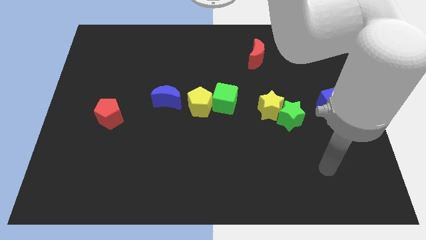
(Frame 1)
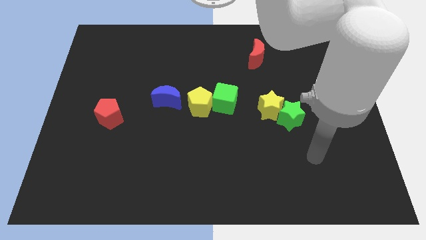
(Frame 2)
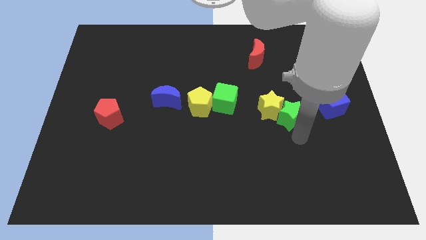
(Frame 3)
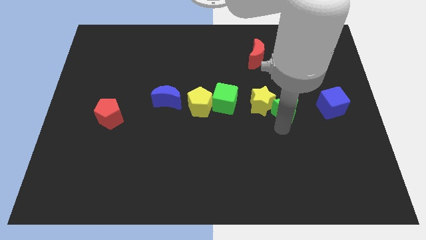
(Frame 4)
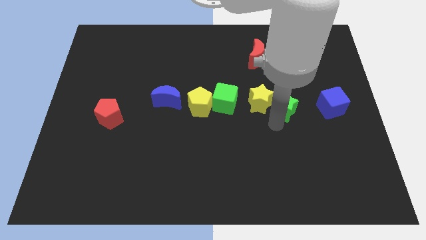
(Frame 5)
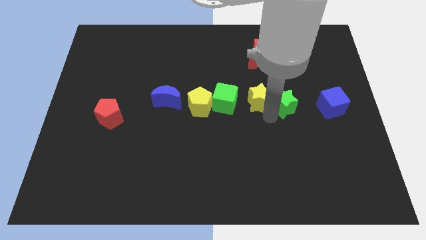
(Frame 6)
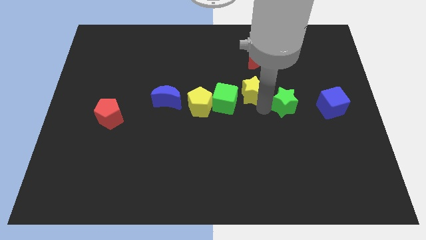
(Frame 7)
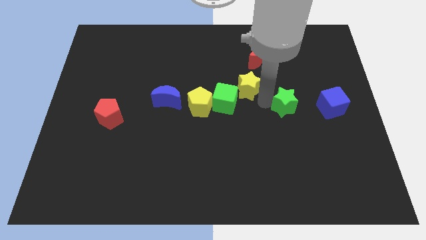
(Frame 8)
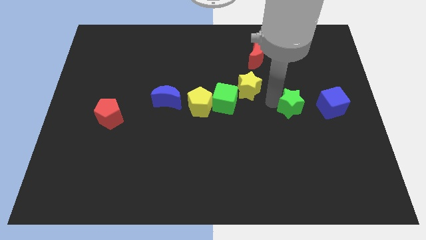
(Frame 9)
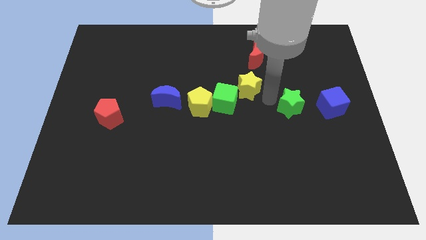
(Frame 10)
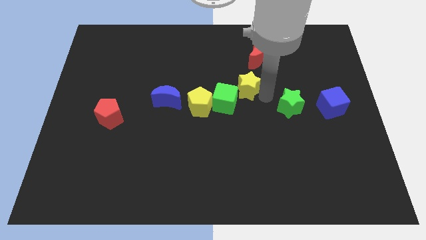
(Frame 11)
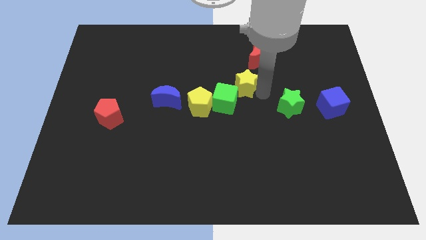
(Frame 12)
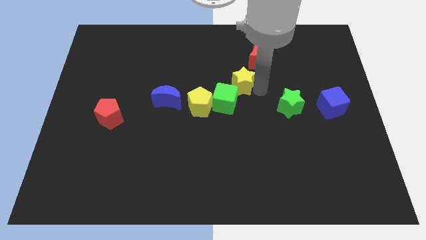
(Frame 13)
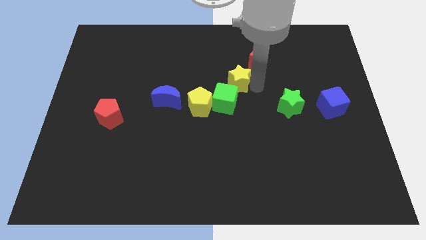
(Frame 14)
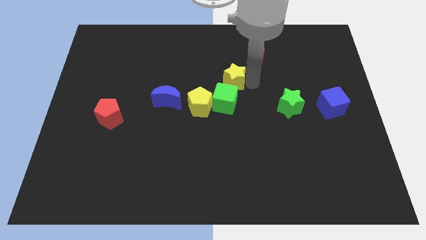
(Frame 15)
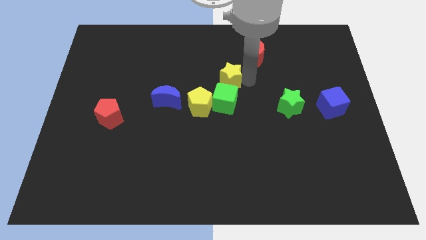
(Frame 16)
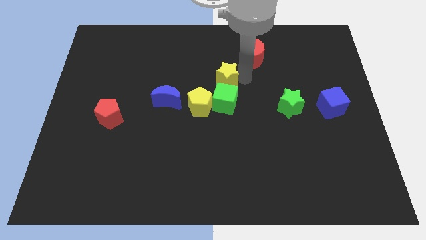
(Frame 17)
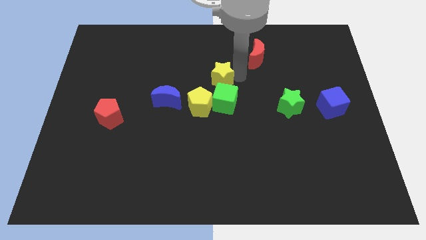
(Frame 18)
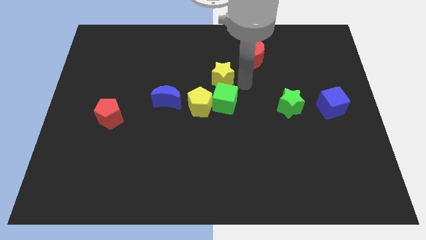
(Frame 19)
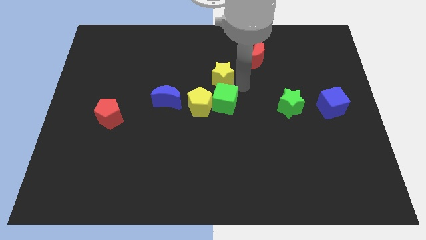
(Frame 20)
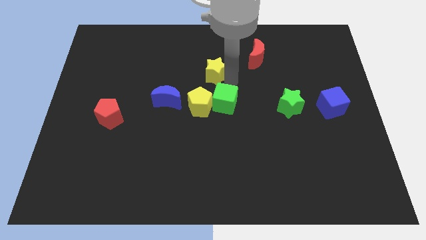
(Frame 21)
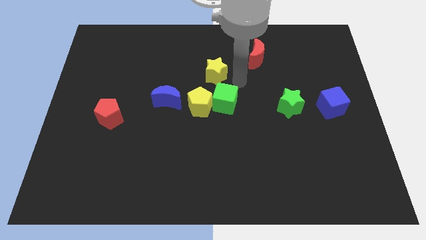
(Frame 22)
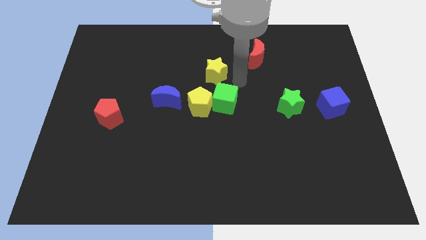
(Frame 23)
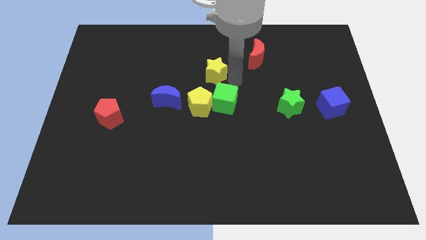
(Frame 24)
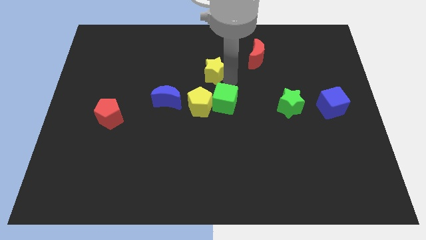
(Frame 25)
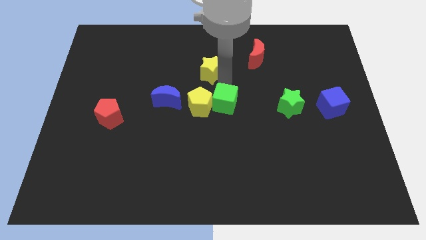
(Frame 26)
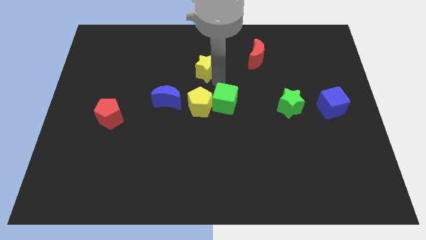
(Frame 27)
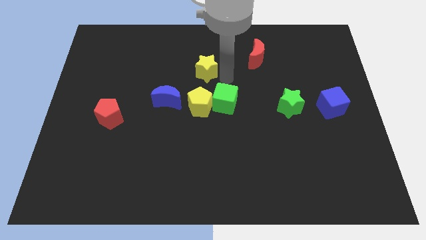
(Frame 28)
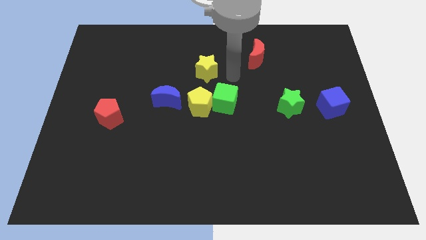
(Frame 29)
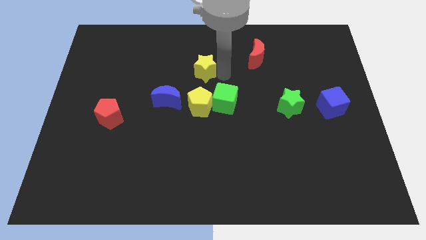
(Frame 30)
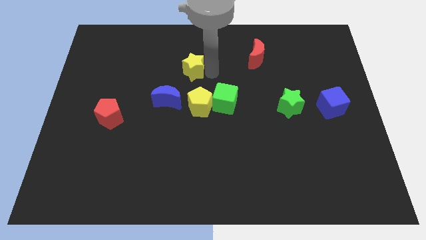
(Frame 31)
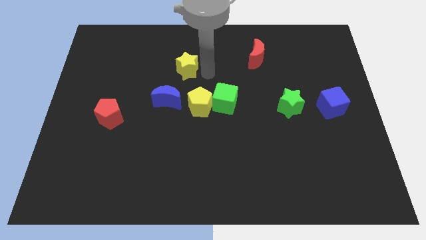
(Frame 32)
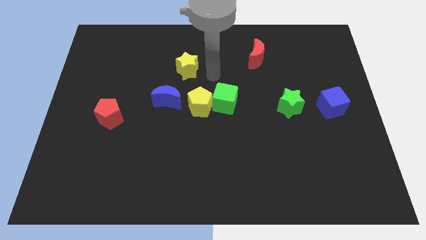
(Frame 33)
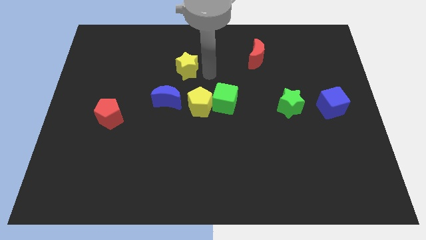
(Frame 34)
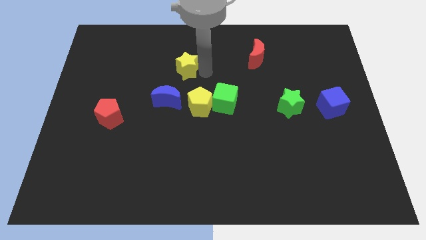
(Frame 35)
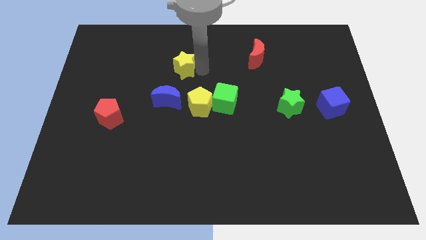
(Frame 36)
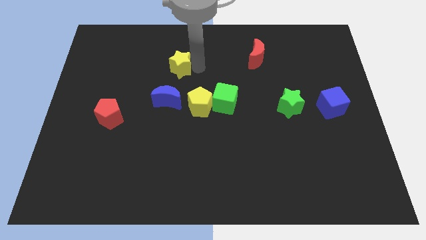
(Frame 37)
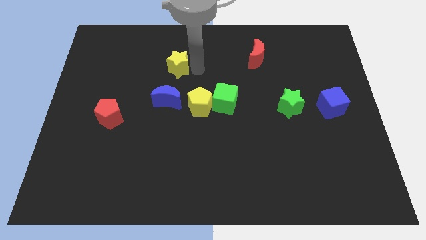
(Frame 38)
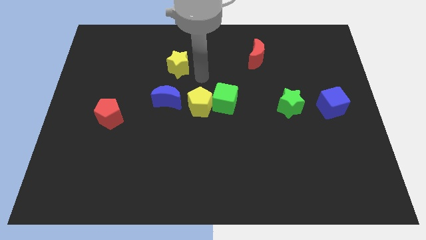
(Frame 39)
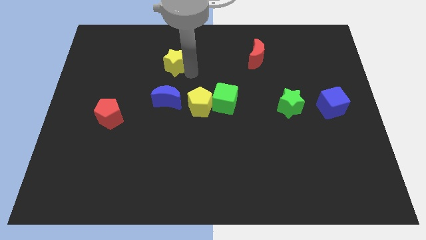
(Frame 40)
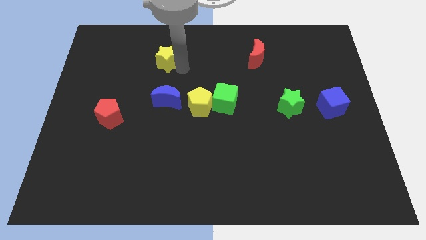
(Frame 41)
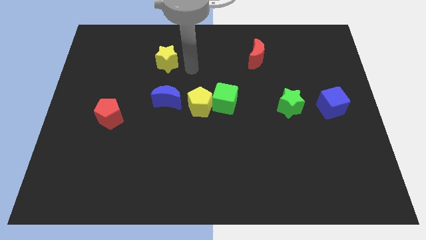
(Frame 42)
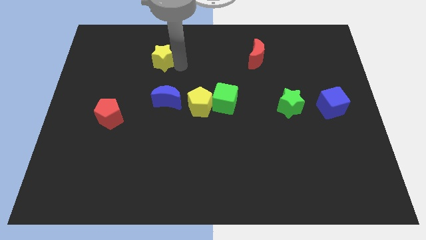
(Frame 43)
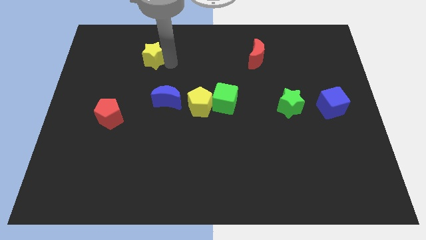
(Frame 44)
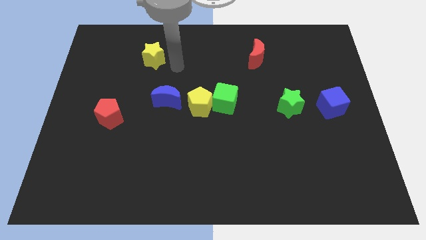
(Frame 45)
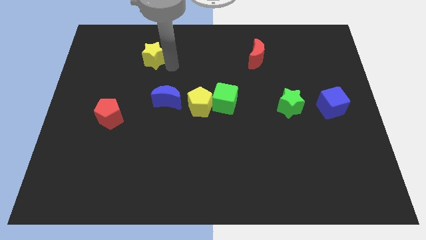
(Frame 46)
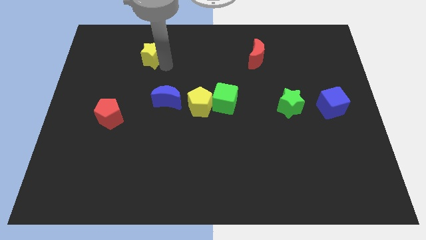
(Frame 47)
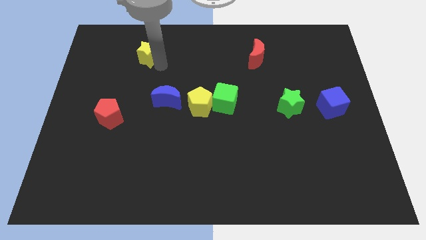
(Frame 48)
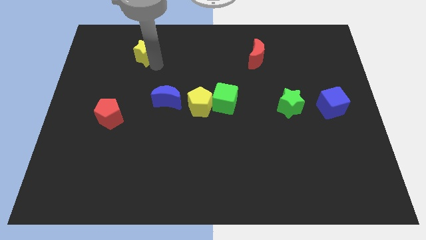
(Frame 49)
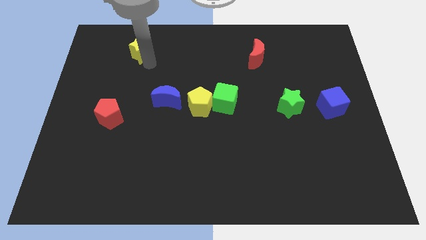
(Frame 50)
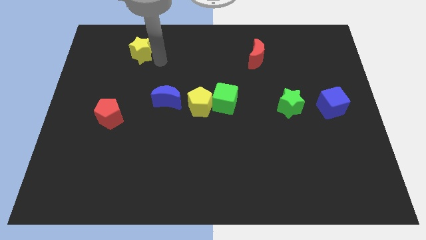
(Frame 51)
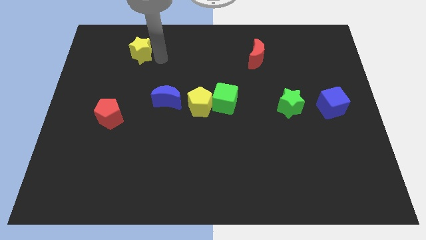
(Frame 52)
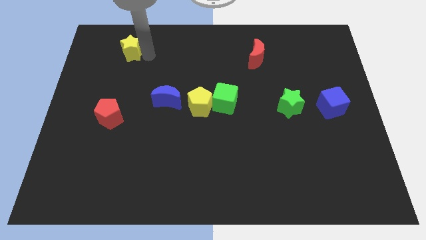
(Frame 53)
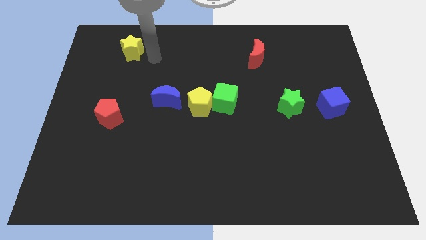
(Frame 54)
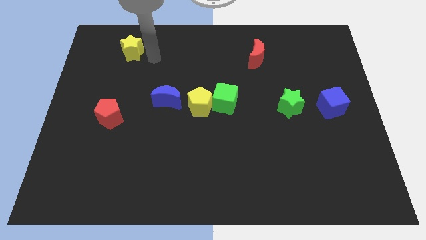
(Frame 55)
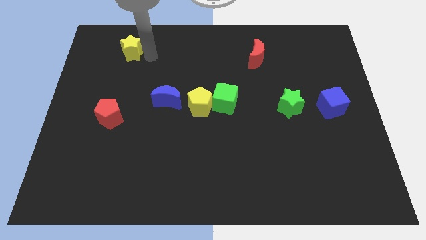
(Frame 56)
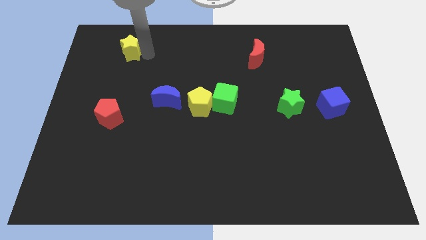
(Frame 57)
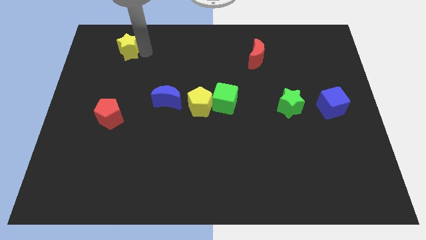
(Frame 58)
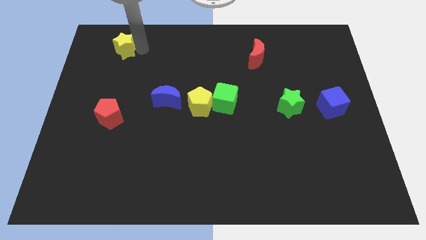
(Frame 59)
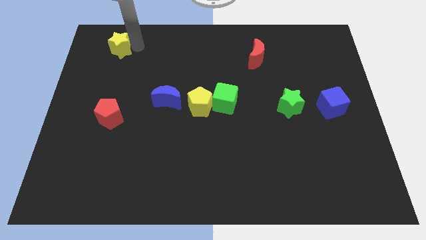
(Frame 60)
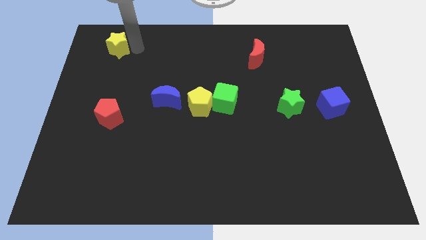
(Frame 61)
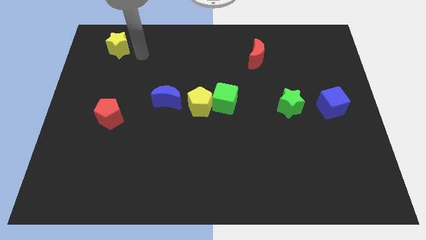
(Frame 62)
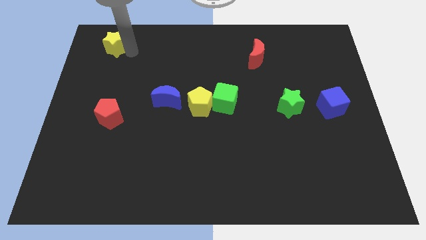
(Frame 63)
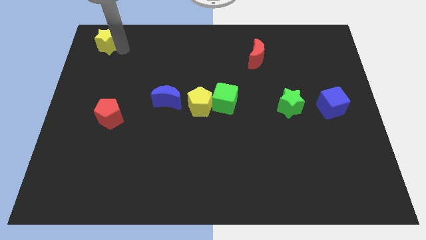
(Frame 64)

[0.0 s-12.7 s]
put the yellow star to the top left
